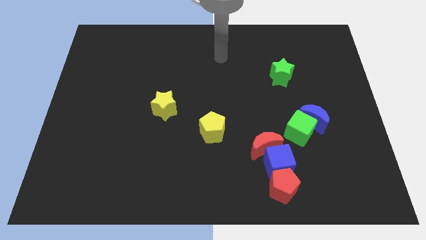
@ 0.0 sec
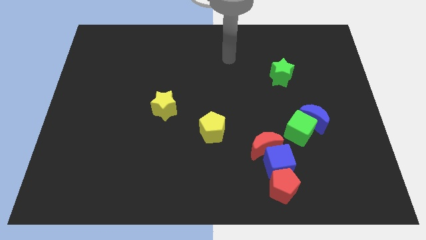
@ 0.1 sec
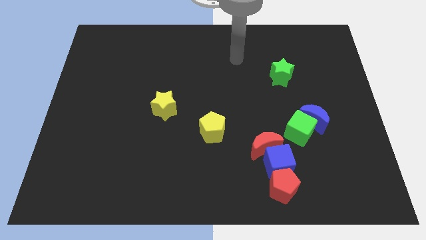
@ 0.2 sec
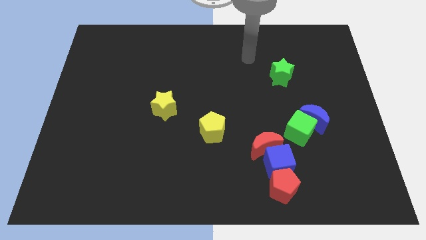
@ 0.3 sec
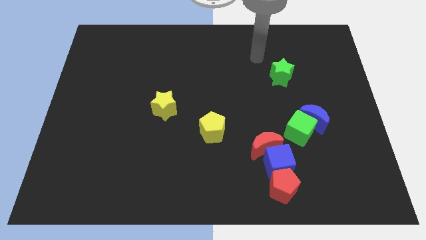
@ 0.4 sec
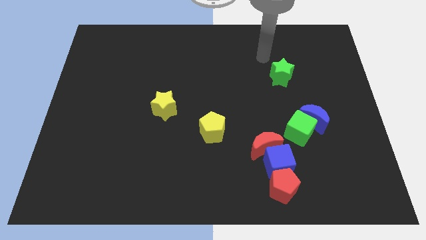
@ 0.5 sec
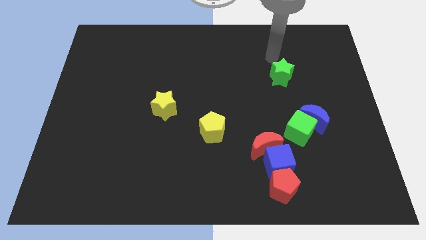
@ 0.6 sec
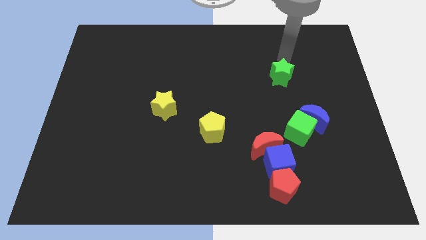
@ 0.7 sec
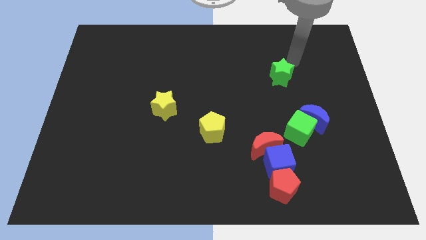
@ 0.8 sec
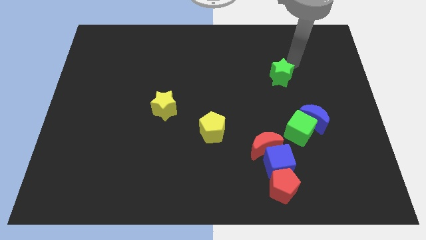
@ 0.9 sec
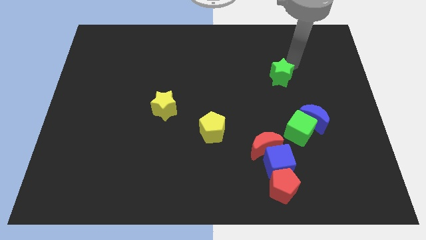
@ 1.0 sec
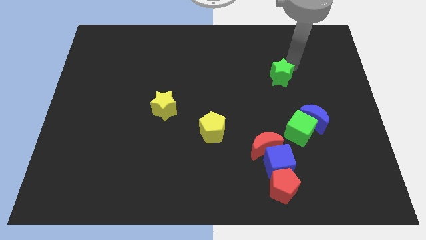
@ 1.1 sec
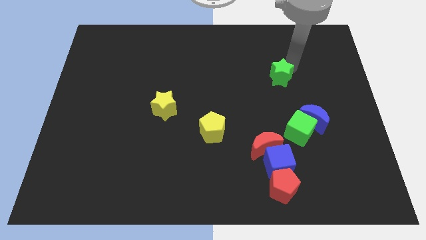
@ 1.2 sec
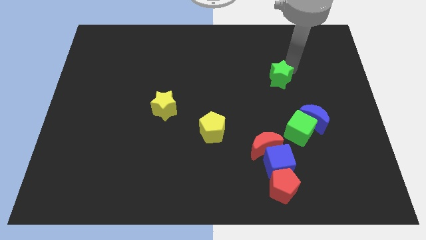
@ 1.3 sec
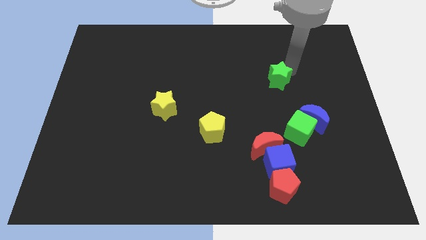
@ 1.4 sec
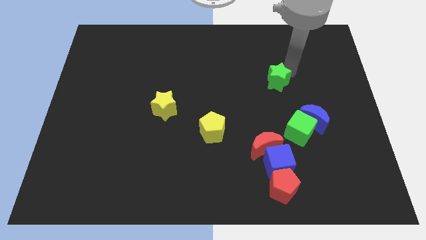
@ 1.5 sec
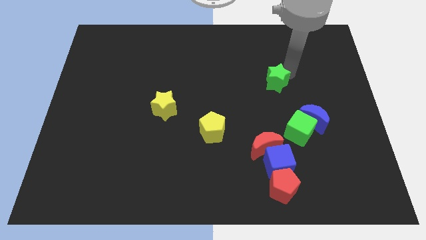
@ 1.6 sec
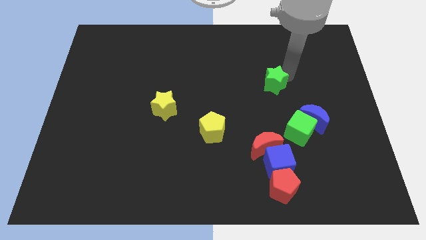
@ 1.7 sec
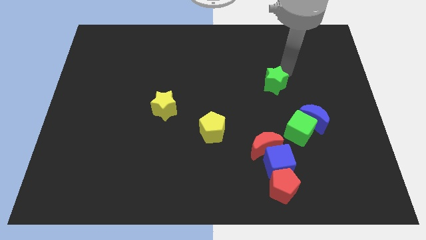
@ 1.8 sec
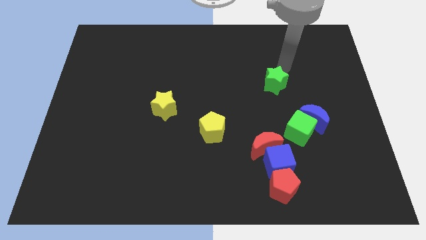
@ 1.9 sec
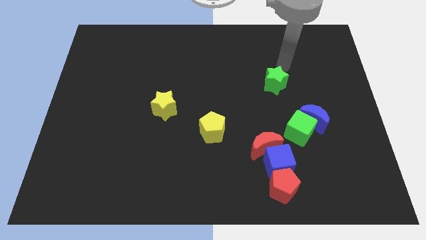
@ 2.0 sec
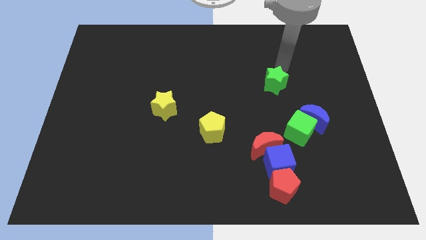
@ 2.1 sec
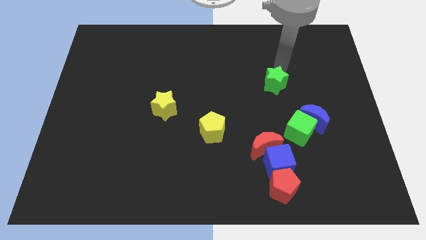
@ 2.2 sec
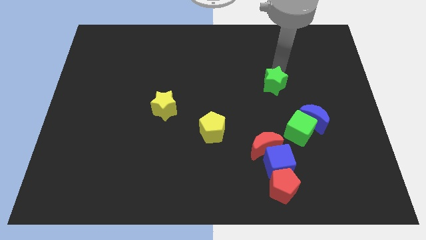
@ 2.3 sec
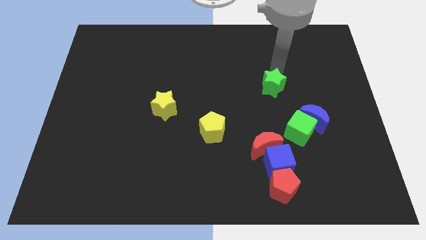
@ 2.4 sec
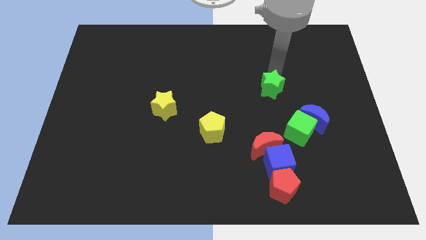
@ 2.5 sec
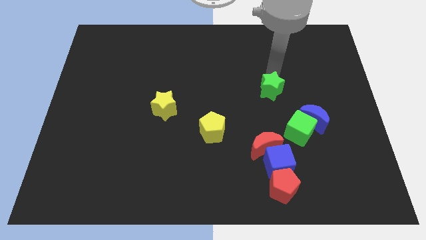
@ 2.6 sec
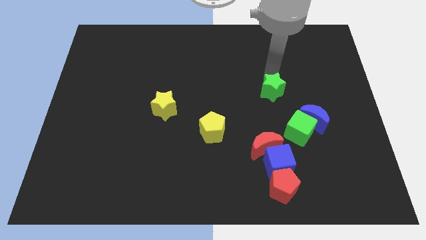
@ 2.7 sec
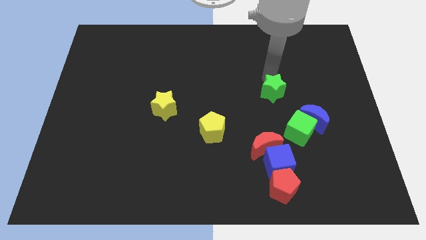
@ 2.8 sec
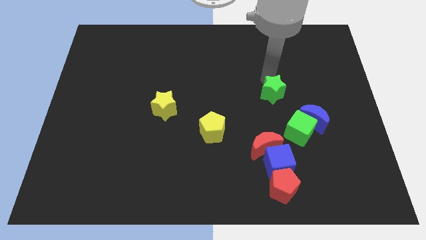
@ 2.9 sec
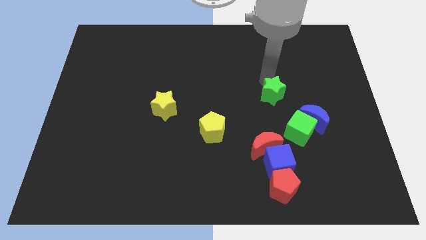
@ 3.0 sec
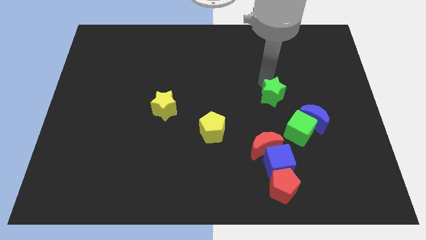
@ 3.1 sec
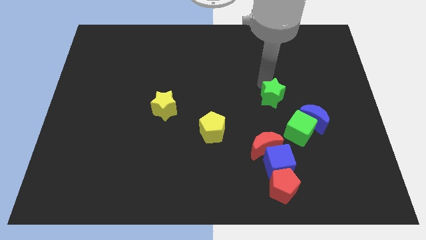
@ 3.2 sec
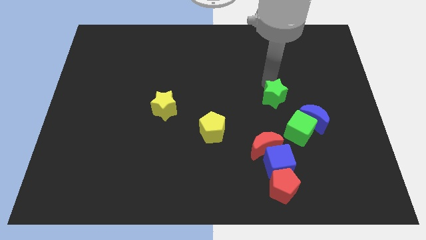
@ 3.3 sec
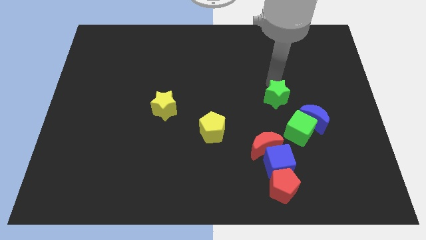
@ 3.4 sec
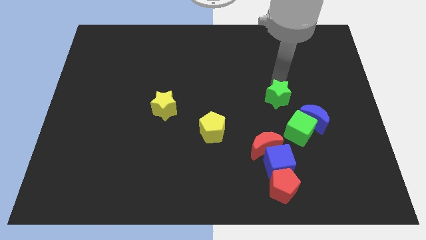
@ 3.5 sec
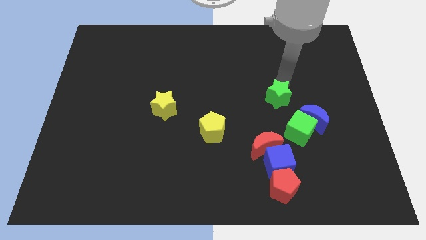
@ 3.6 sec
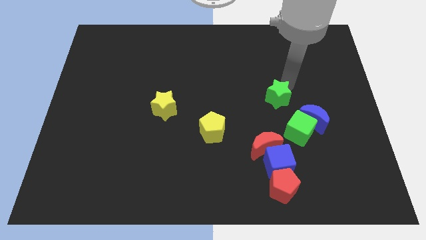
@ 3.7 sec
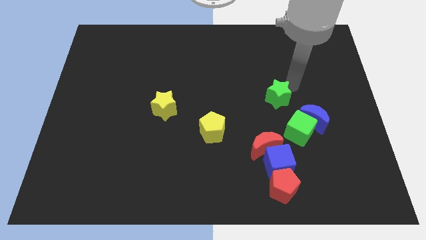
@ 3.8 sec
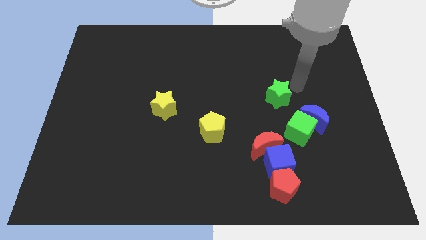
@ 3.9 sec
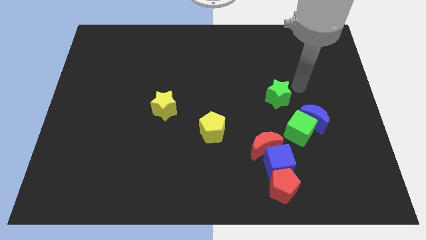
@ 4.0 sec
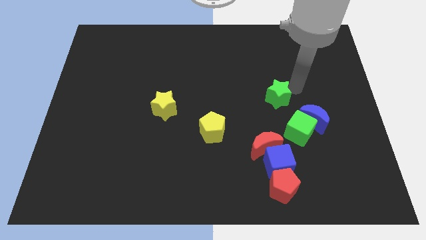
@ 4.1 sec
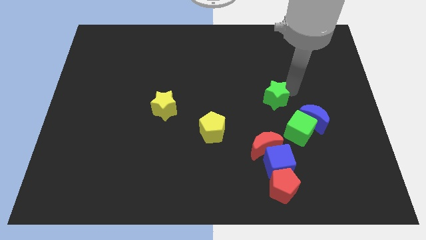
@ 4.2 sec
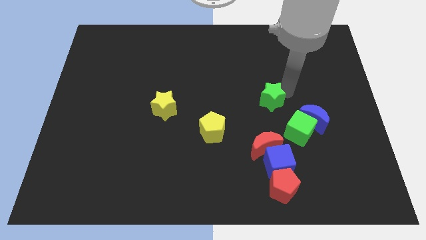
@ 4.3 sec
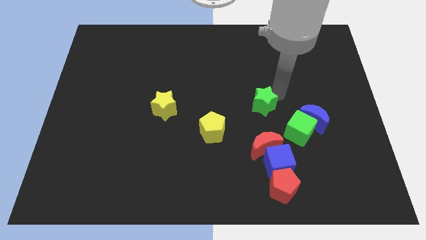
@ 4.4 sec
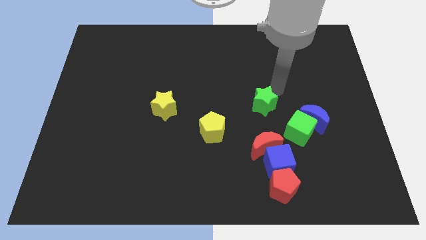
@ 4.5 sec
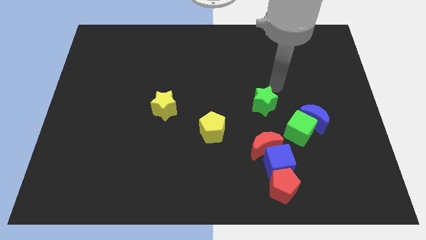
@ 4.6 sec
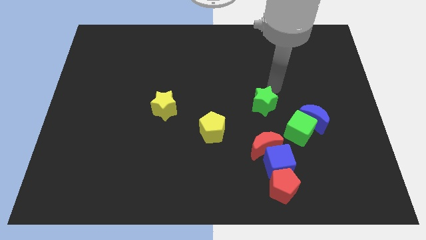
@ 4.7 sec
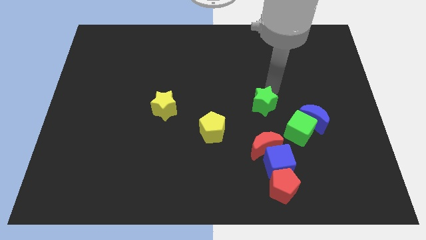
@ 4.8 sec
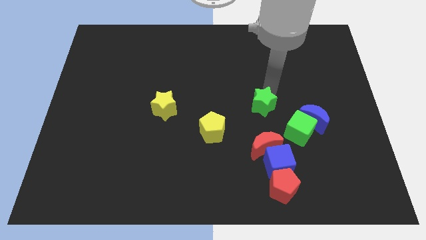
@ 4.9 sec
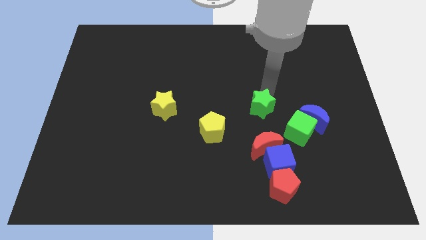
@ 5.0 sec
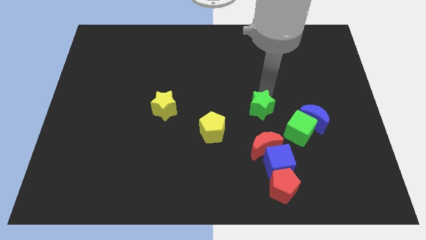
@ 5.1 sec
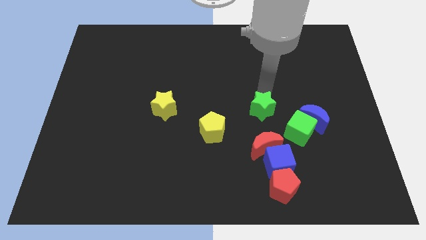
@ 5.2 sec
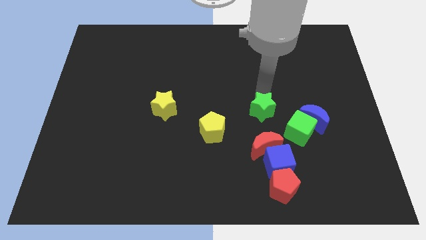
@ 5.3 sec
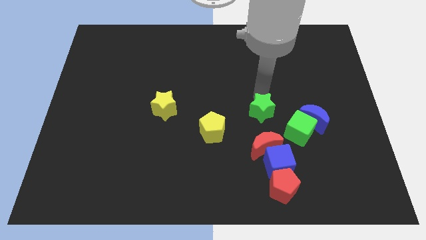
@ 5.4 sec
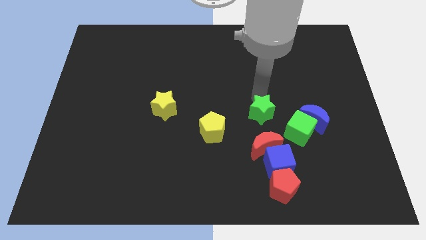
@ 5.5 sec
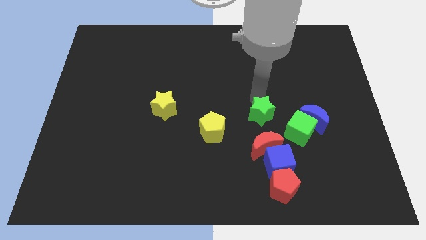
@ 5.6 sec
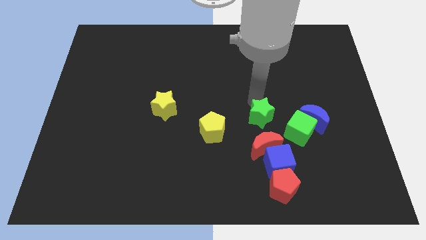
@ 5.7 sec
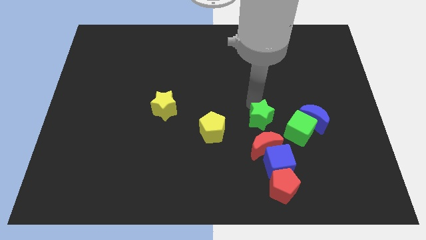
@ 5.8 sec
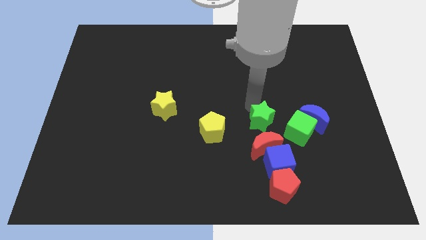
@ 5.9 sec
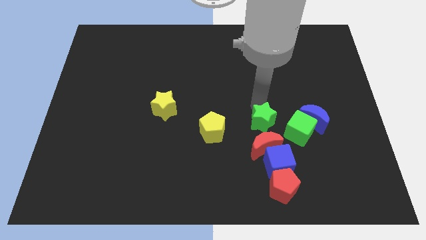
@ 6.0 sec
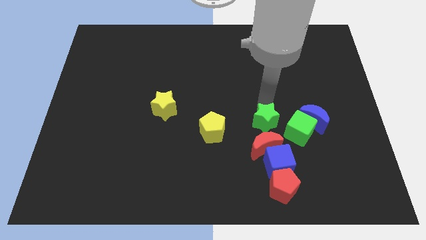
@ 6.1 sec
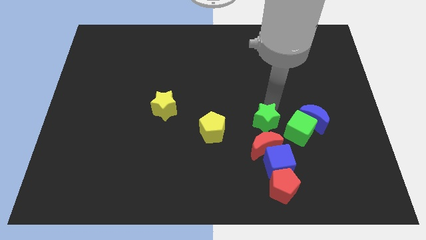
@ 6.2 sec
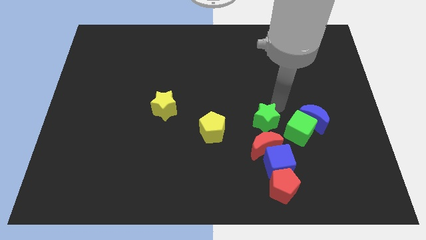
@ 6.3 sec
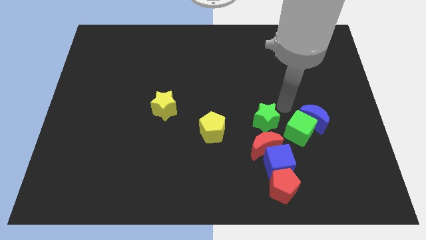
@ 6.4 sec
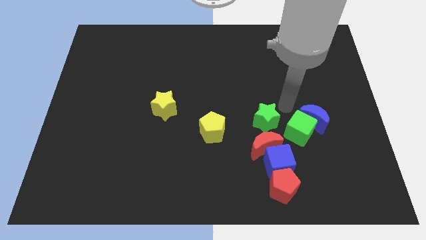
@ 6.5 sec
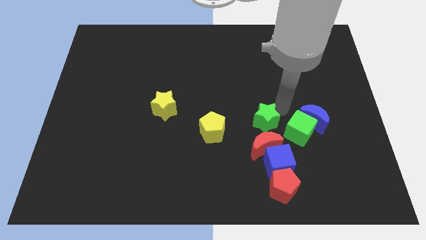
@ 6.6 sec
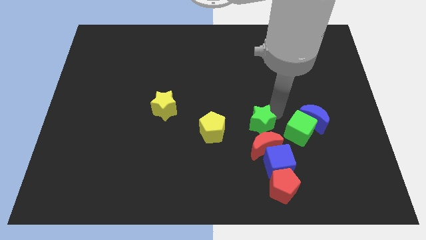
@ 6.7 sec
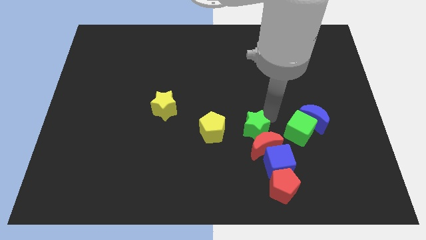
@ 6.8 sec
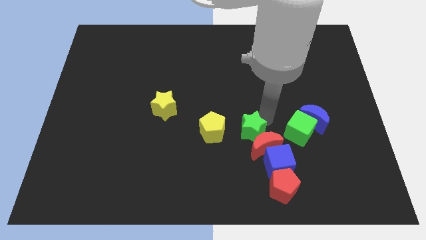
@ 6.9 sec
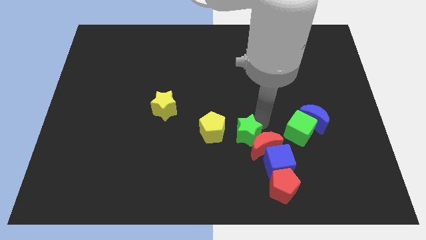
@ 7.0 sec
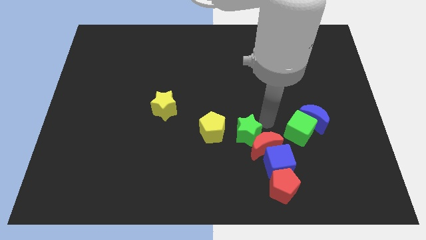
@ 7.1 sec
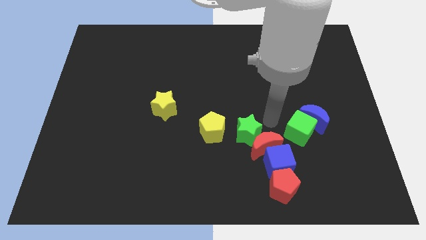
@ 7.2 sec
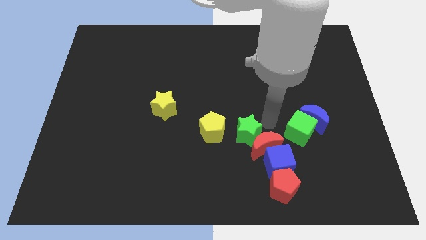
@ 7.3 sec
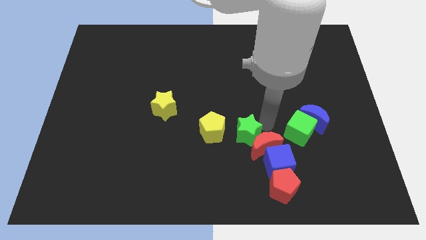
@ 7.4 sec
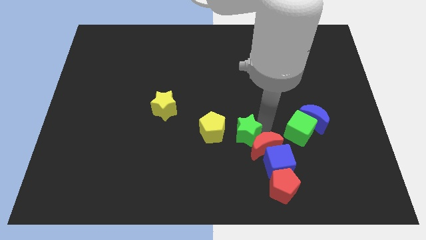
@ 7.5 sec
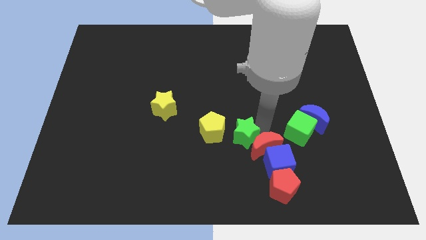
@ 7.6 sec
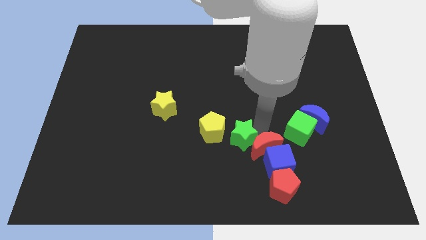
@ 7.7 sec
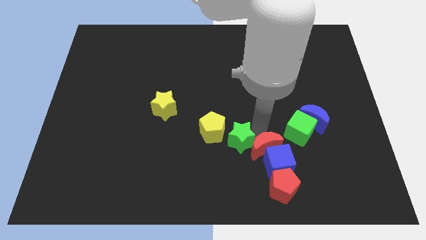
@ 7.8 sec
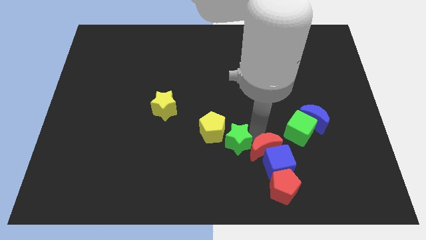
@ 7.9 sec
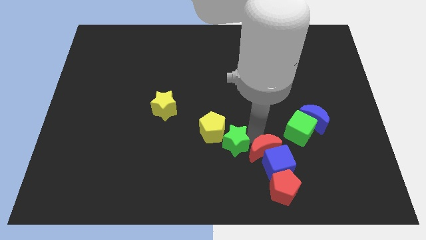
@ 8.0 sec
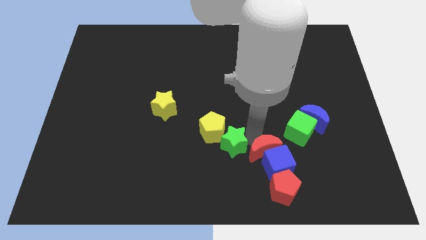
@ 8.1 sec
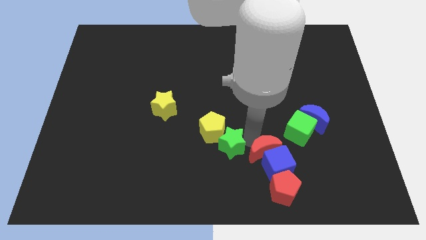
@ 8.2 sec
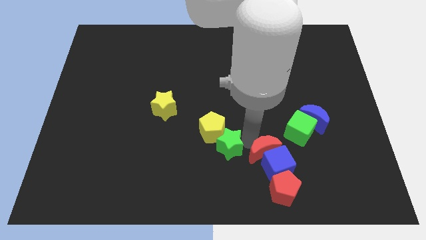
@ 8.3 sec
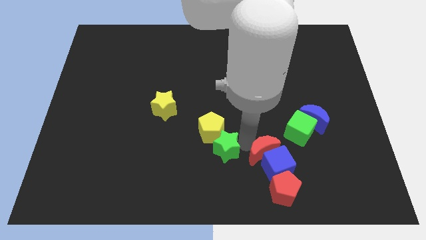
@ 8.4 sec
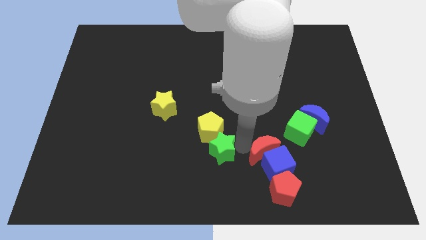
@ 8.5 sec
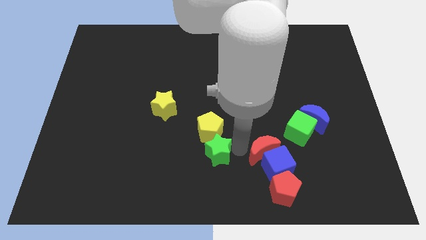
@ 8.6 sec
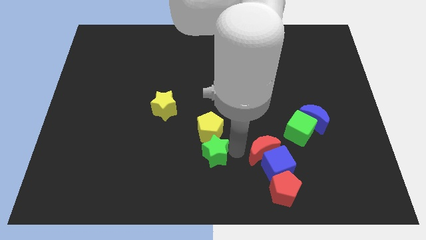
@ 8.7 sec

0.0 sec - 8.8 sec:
slide the green star to the bottom left of the yellow pentagon
